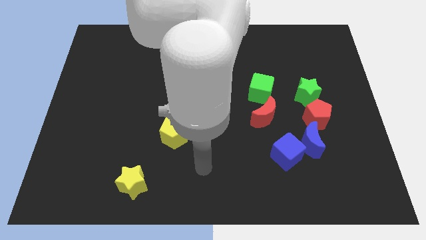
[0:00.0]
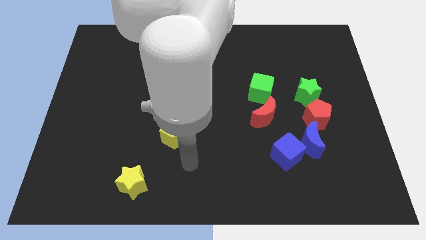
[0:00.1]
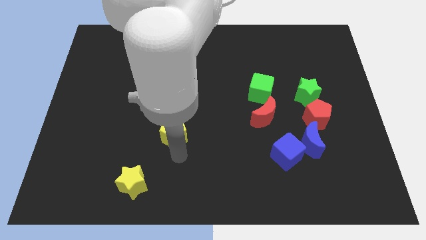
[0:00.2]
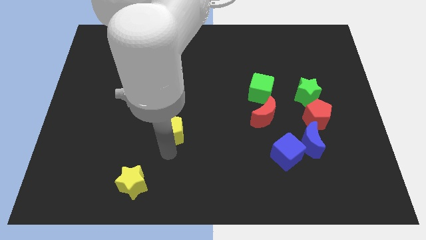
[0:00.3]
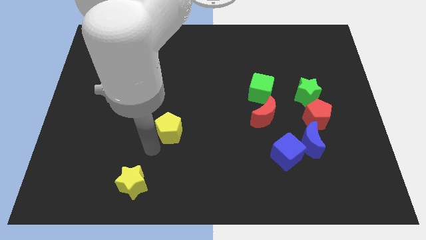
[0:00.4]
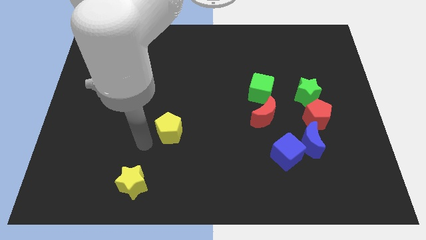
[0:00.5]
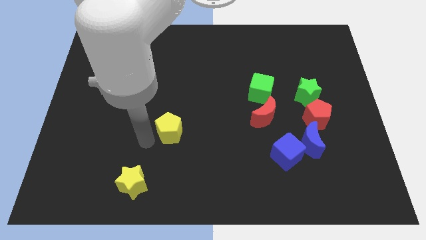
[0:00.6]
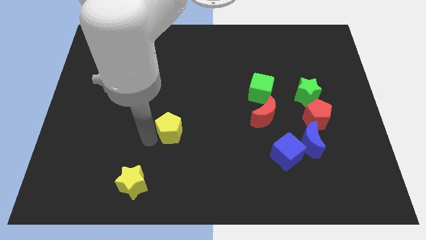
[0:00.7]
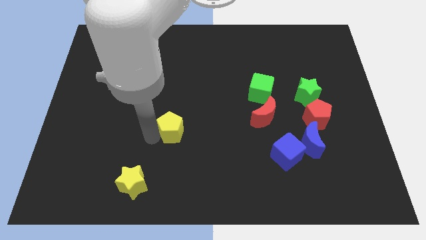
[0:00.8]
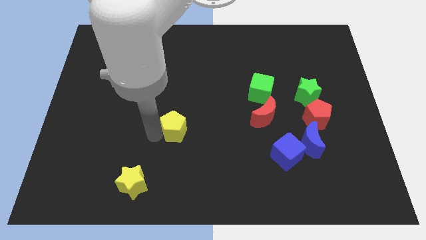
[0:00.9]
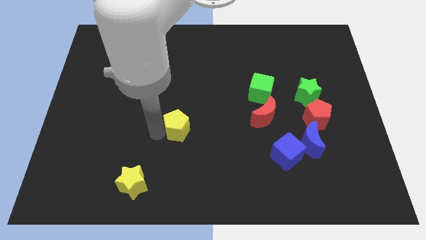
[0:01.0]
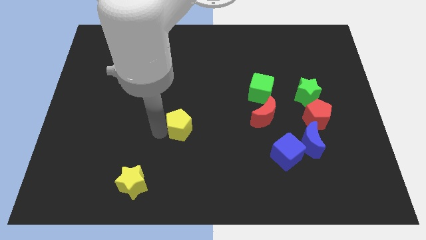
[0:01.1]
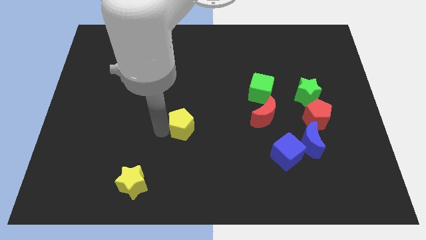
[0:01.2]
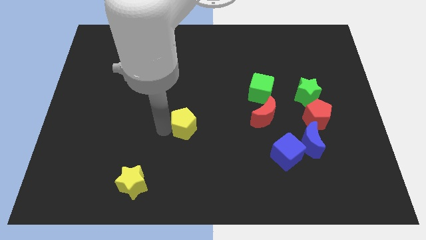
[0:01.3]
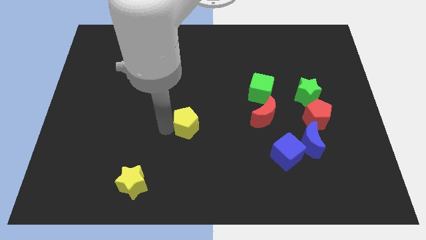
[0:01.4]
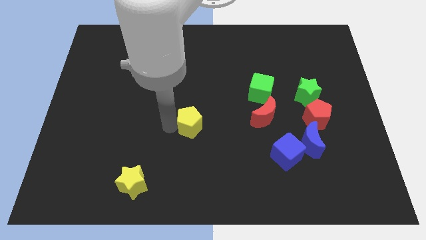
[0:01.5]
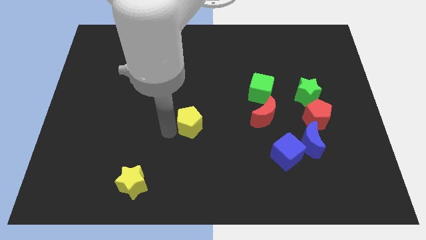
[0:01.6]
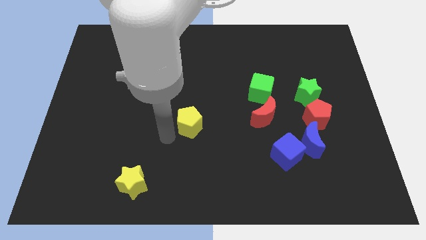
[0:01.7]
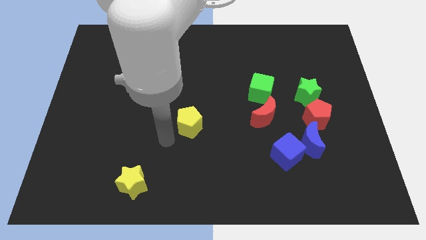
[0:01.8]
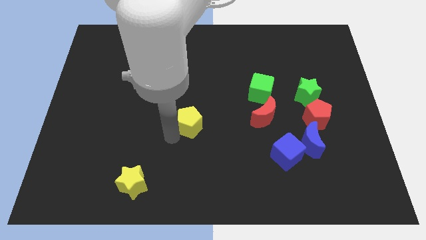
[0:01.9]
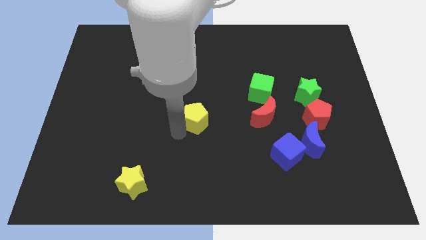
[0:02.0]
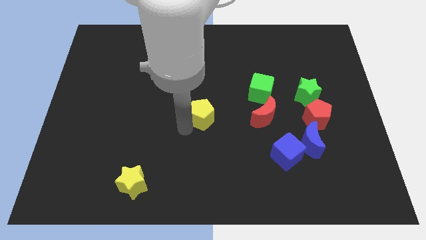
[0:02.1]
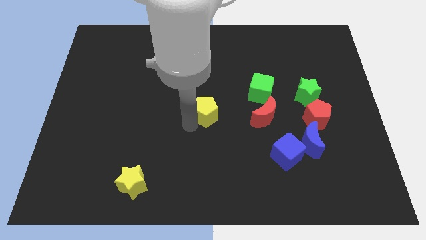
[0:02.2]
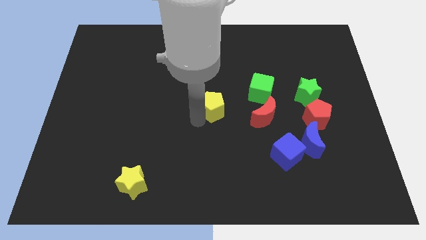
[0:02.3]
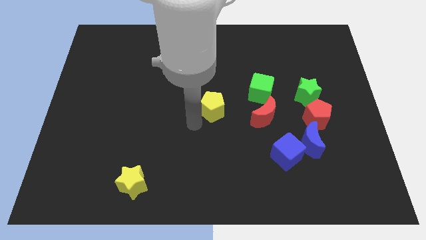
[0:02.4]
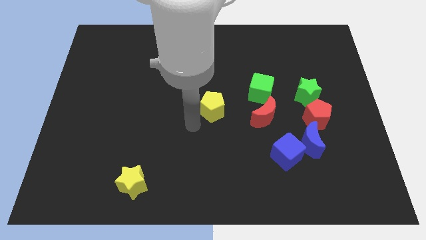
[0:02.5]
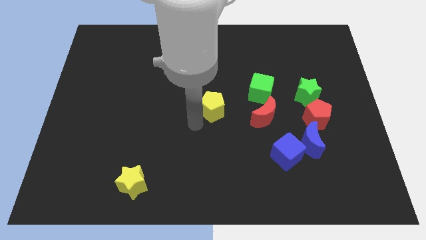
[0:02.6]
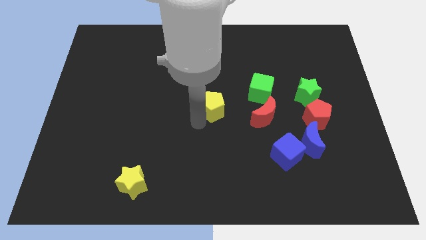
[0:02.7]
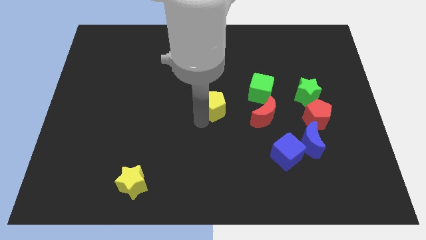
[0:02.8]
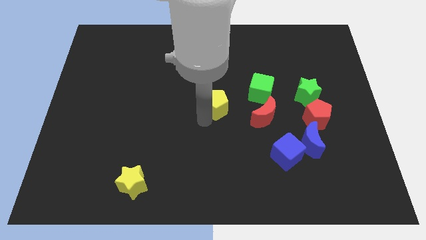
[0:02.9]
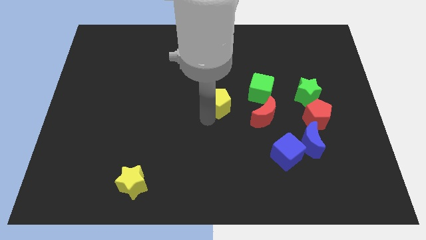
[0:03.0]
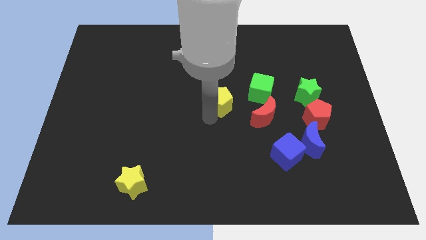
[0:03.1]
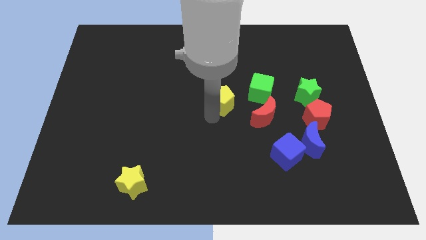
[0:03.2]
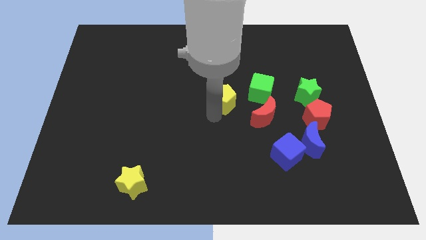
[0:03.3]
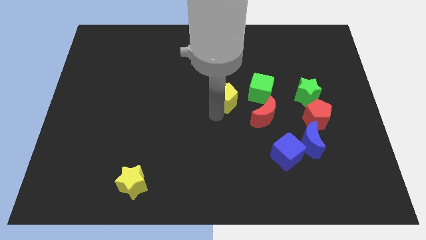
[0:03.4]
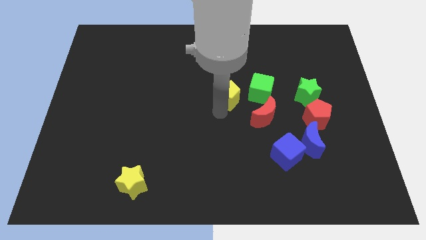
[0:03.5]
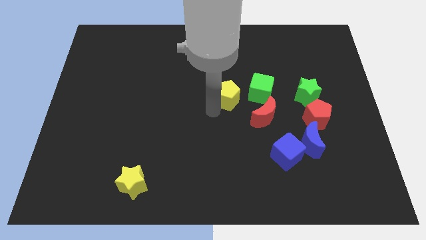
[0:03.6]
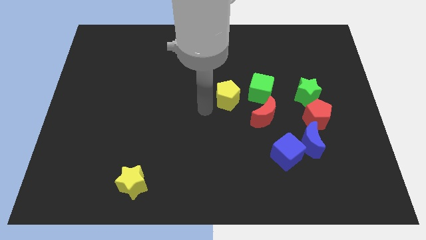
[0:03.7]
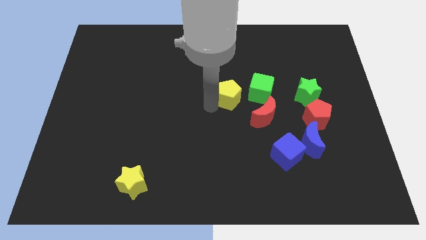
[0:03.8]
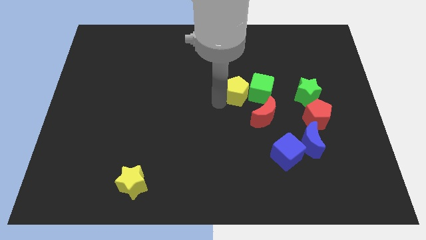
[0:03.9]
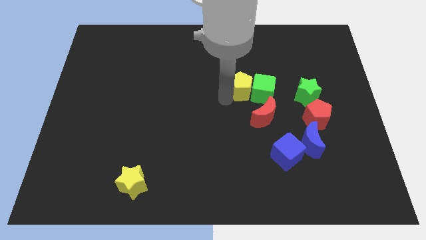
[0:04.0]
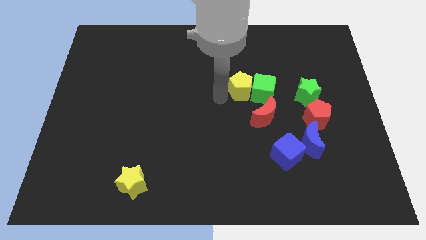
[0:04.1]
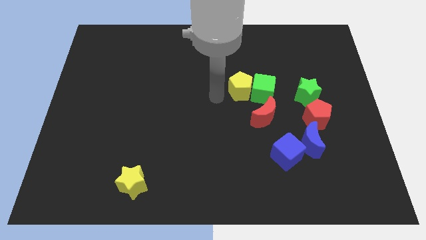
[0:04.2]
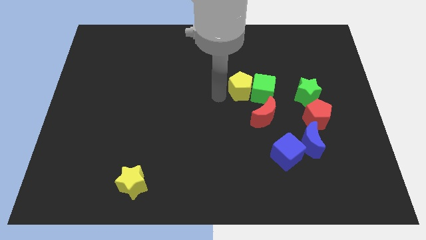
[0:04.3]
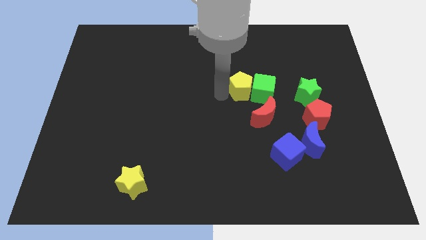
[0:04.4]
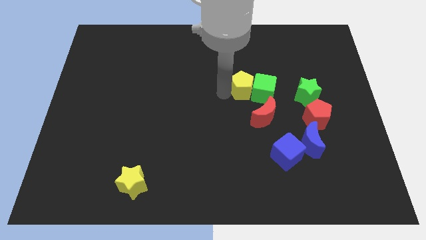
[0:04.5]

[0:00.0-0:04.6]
move the yellow pentagon to the top side of the red moon

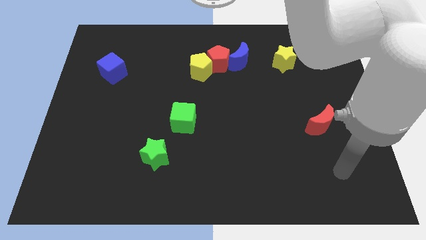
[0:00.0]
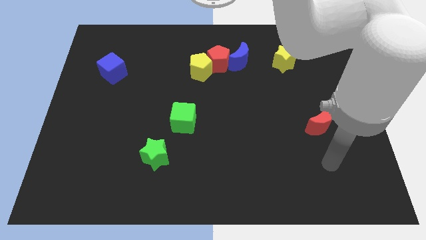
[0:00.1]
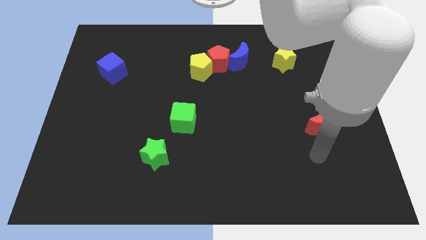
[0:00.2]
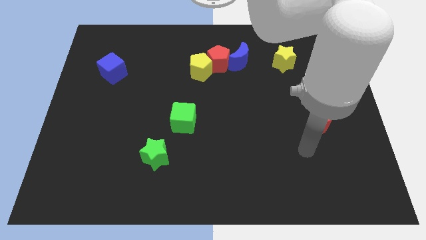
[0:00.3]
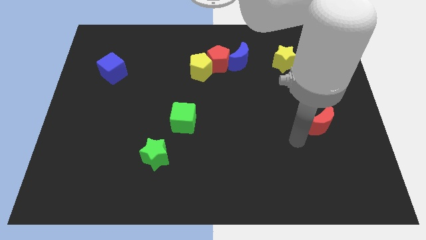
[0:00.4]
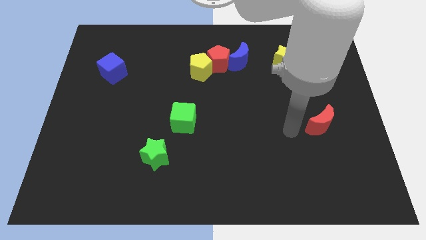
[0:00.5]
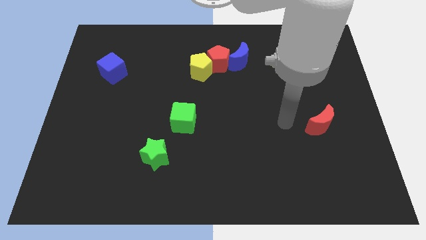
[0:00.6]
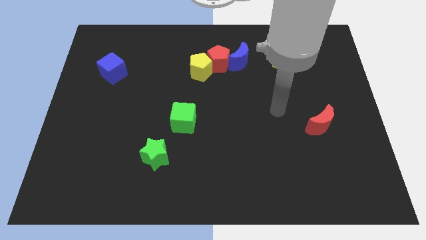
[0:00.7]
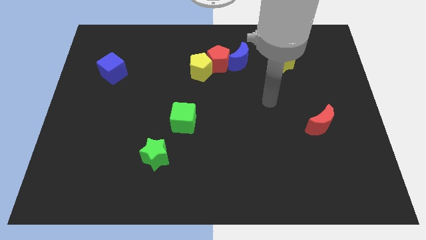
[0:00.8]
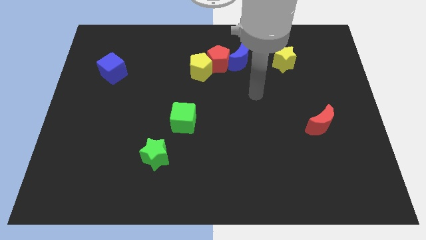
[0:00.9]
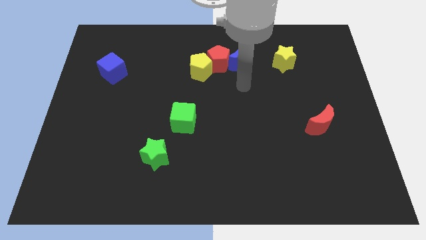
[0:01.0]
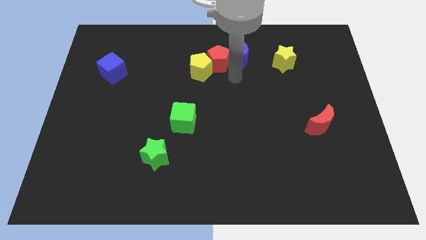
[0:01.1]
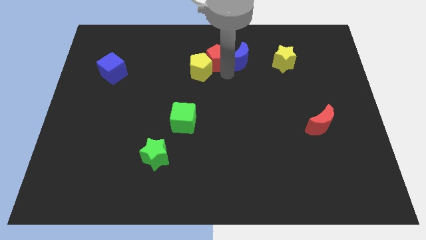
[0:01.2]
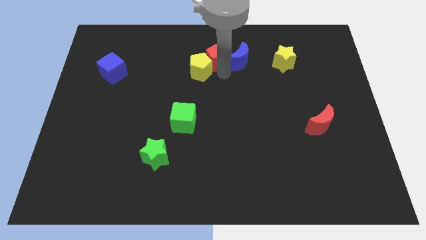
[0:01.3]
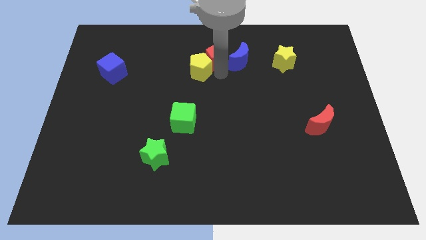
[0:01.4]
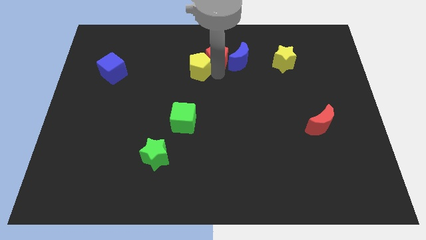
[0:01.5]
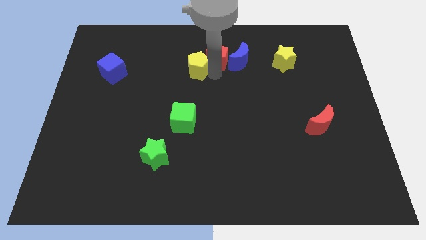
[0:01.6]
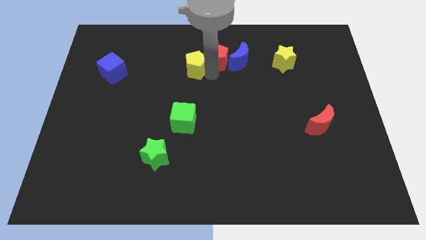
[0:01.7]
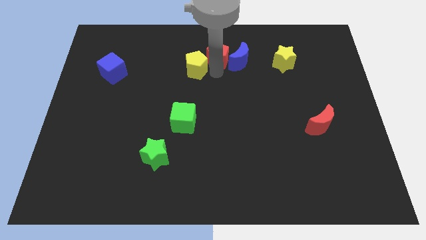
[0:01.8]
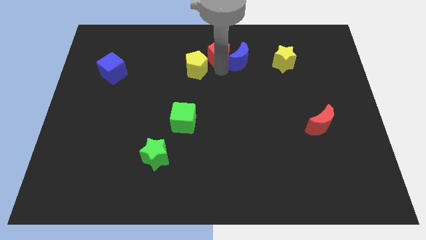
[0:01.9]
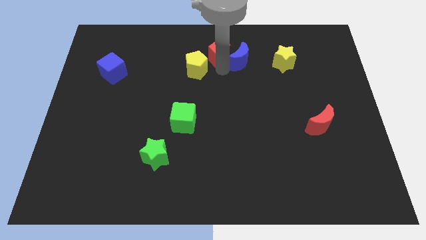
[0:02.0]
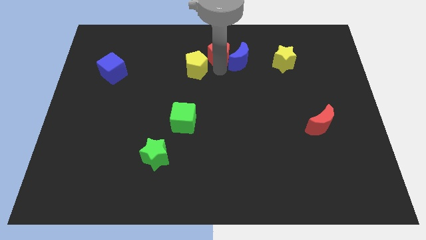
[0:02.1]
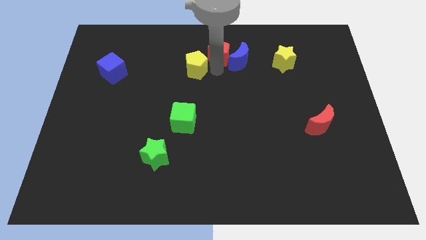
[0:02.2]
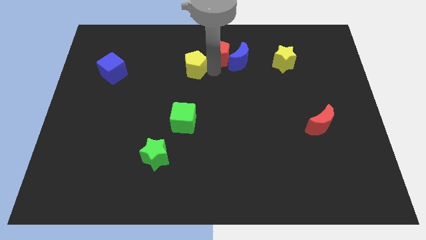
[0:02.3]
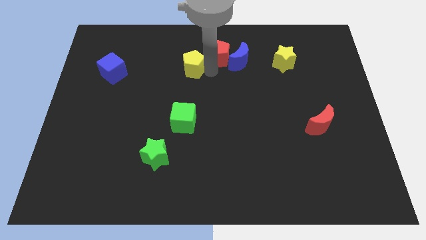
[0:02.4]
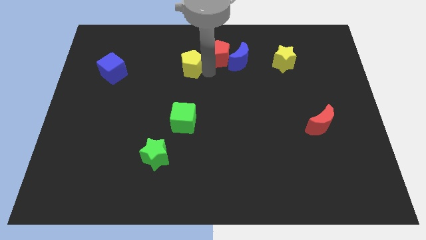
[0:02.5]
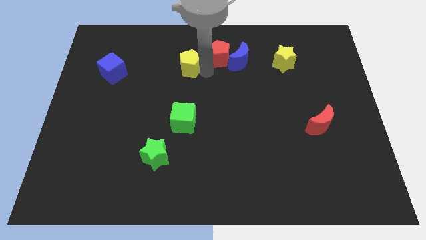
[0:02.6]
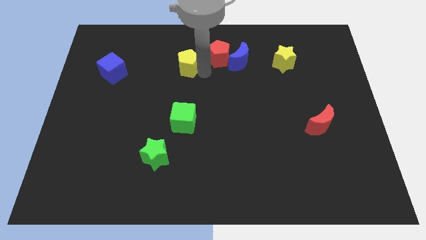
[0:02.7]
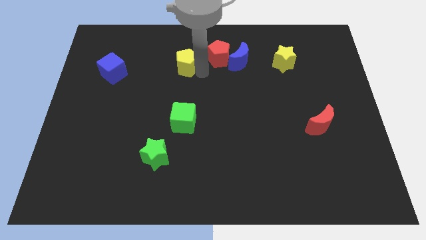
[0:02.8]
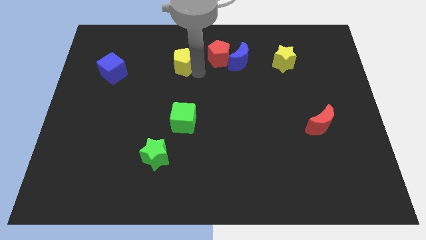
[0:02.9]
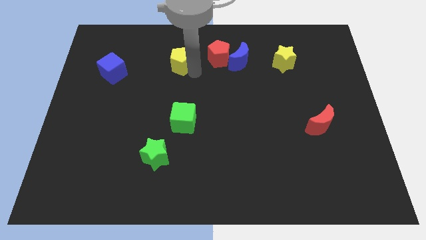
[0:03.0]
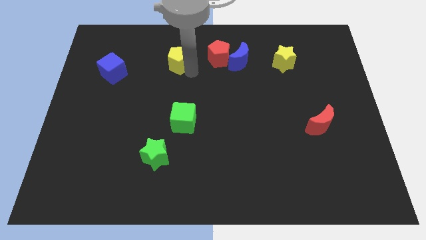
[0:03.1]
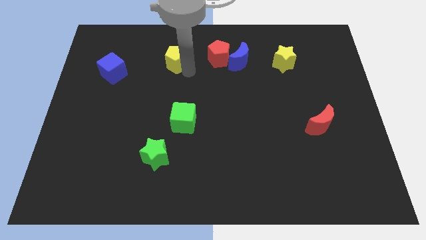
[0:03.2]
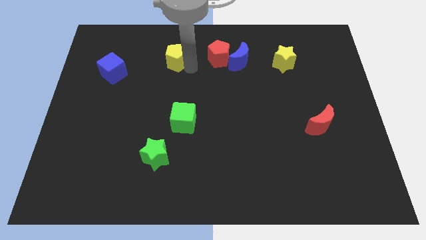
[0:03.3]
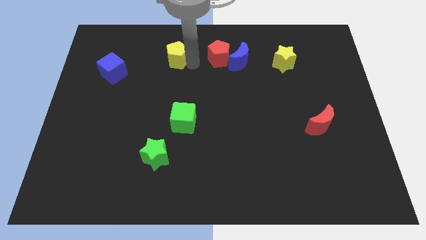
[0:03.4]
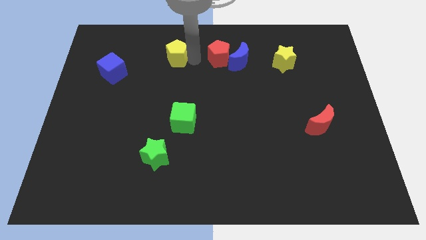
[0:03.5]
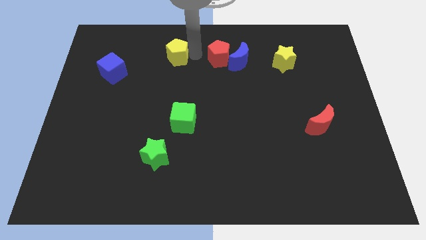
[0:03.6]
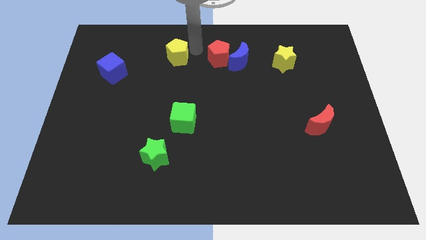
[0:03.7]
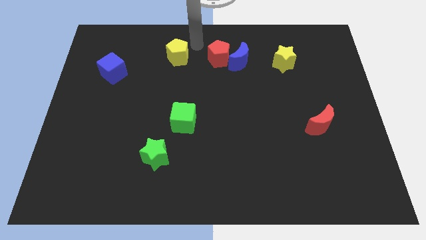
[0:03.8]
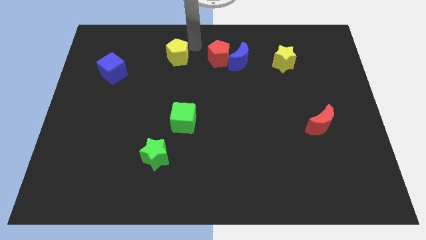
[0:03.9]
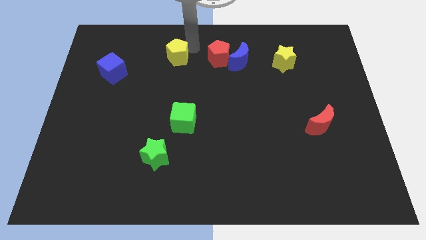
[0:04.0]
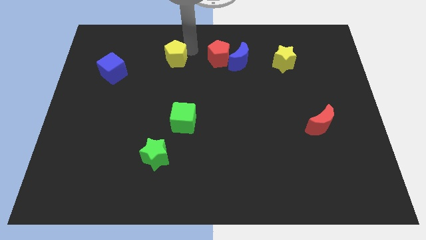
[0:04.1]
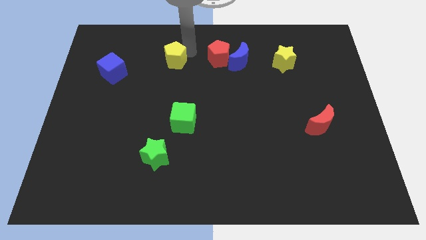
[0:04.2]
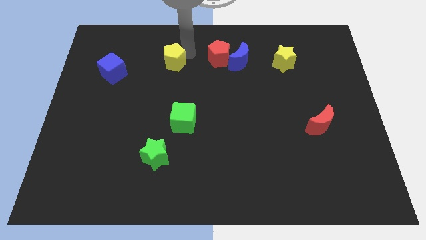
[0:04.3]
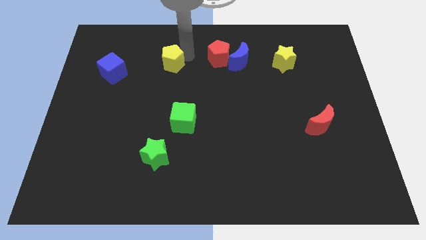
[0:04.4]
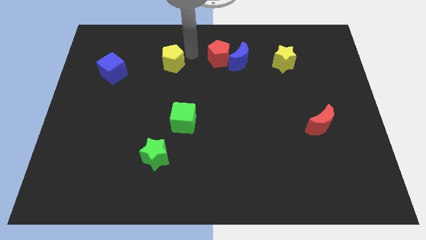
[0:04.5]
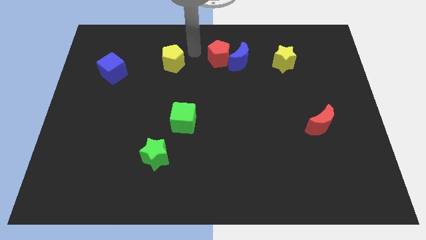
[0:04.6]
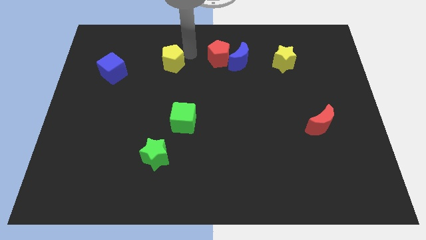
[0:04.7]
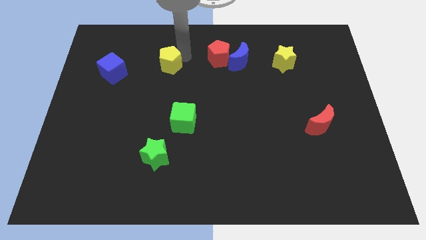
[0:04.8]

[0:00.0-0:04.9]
slide the yellow pentagon to the right side of the blue cube
